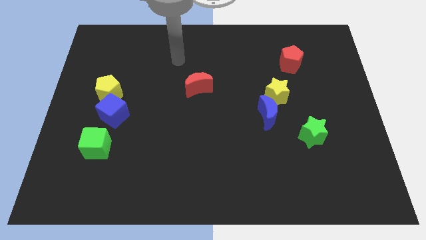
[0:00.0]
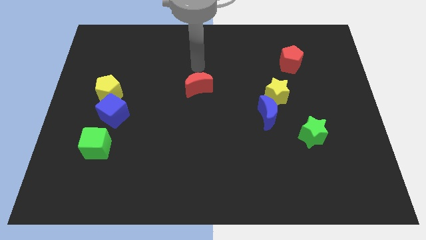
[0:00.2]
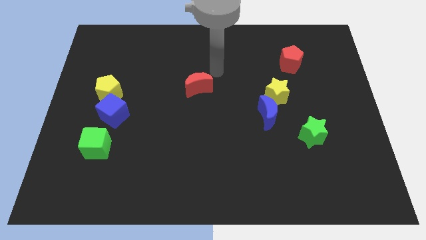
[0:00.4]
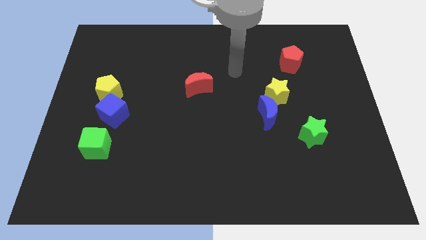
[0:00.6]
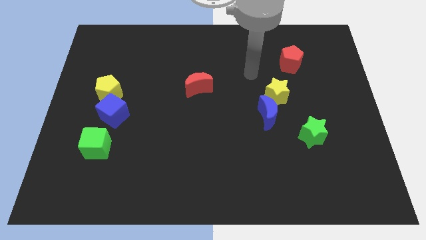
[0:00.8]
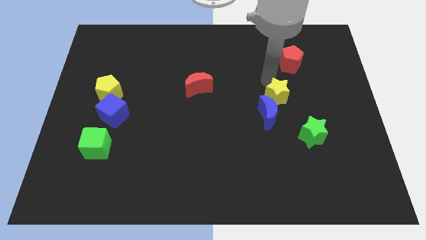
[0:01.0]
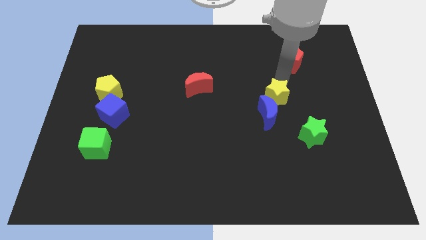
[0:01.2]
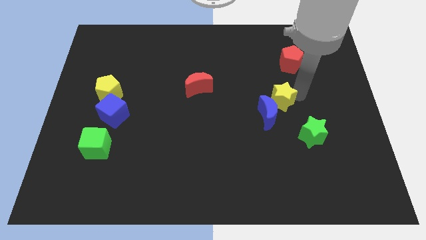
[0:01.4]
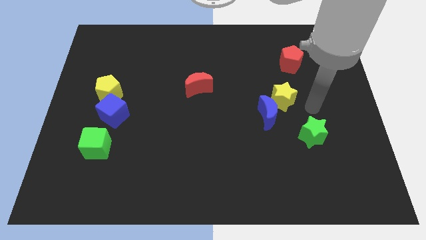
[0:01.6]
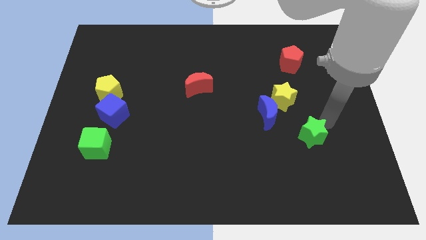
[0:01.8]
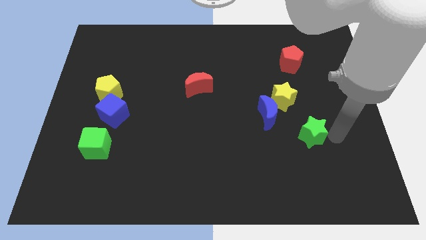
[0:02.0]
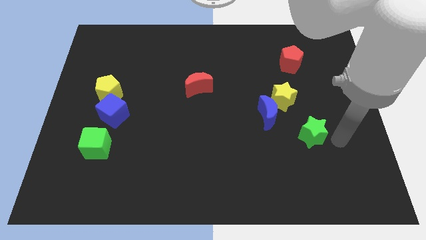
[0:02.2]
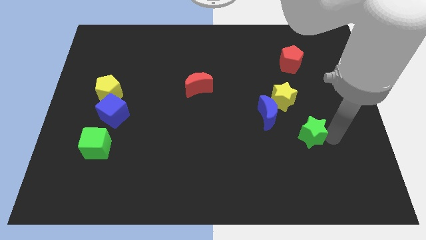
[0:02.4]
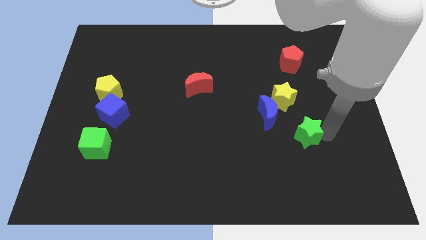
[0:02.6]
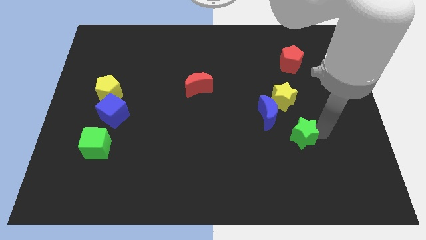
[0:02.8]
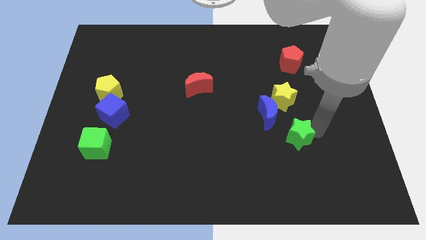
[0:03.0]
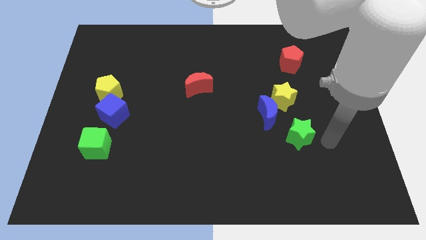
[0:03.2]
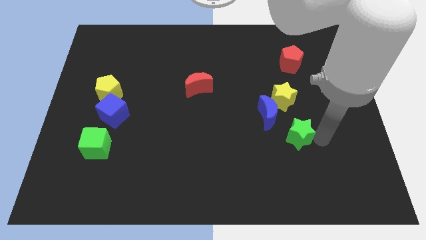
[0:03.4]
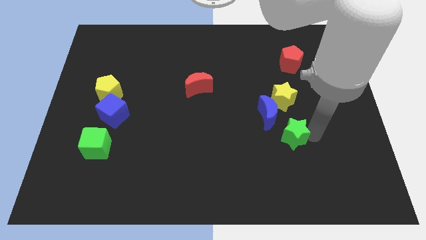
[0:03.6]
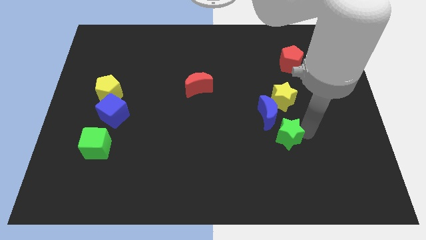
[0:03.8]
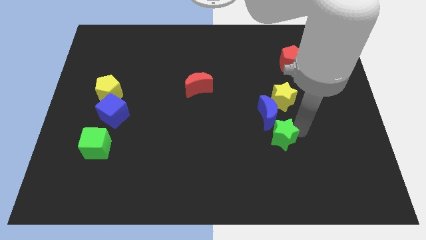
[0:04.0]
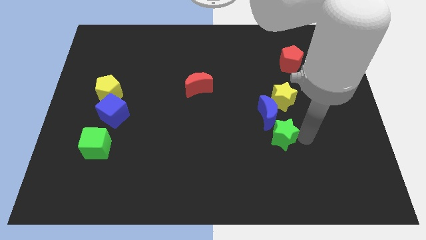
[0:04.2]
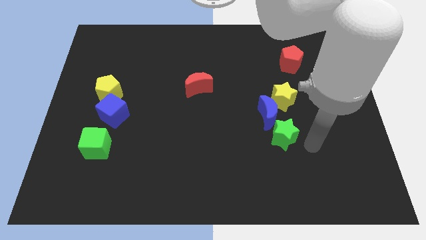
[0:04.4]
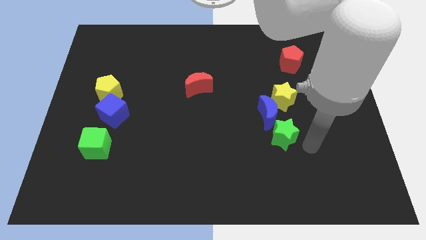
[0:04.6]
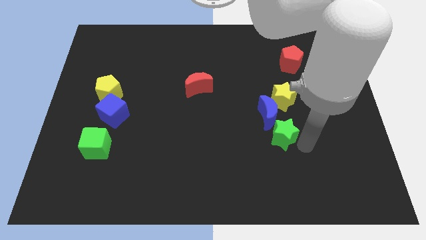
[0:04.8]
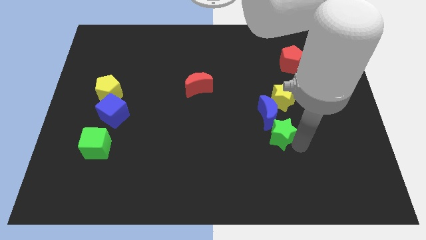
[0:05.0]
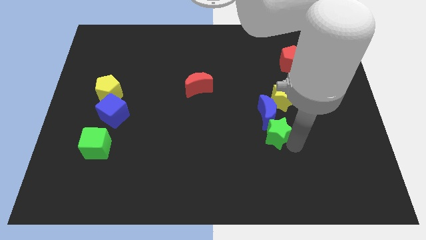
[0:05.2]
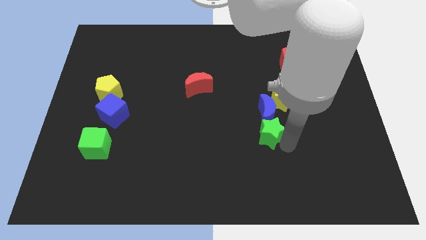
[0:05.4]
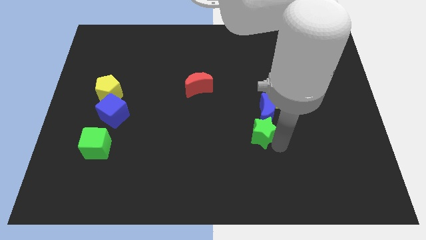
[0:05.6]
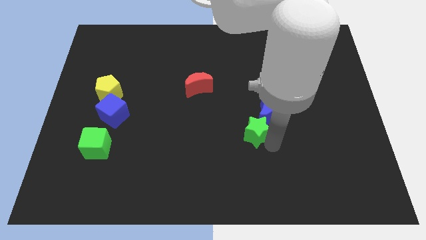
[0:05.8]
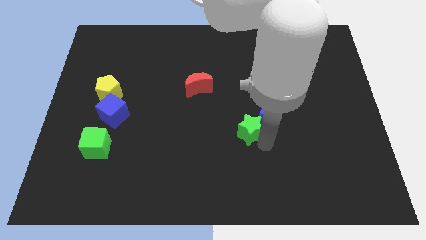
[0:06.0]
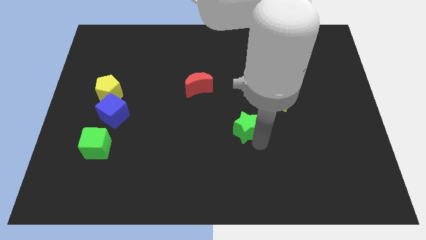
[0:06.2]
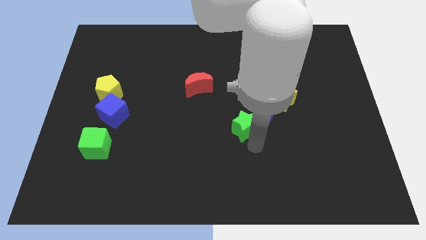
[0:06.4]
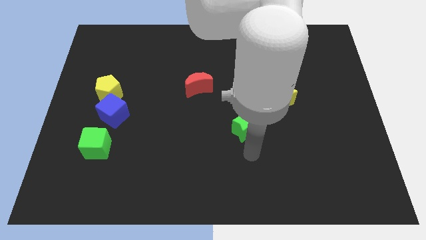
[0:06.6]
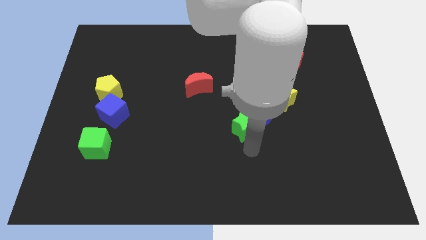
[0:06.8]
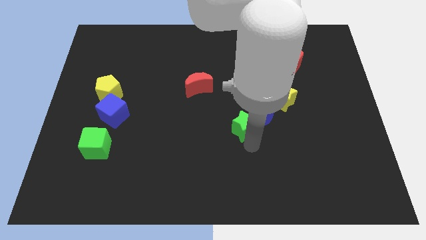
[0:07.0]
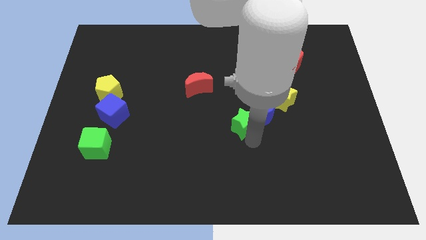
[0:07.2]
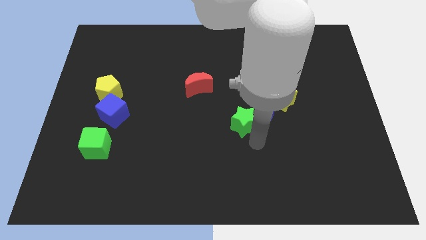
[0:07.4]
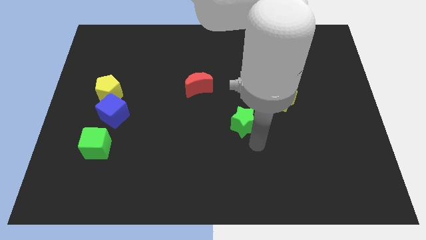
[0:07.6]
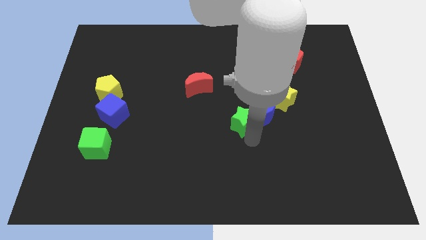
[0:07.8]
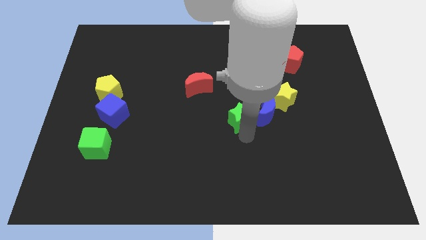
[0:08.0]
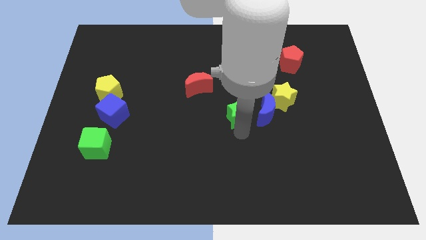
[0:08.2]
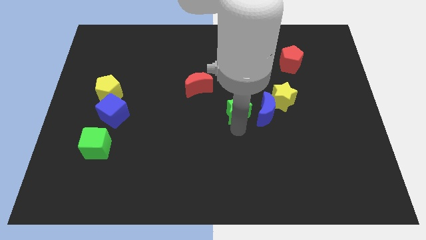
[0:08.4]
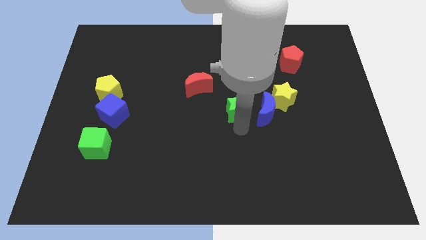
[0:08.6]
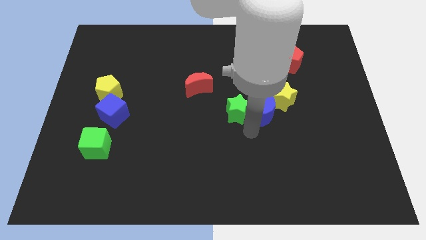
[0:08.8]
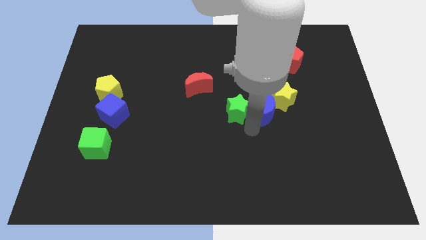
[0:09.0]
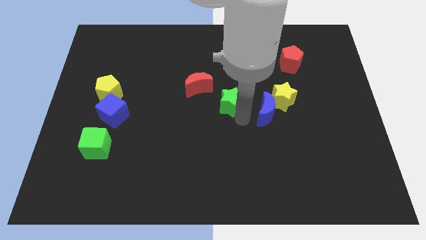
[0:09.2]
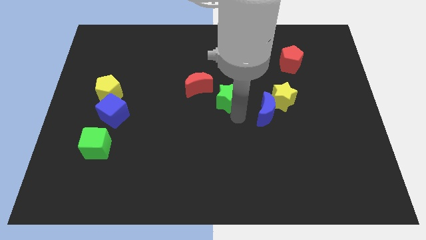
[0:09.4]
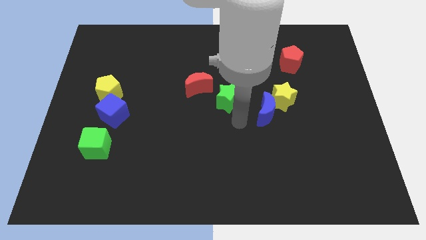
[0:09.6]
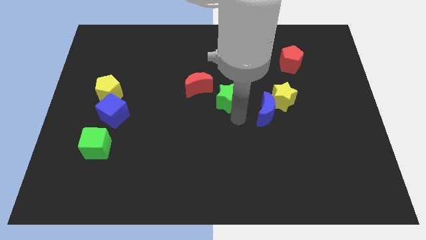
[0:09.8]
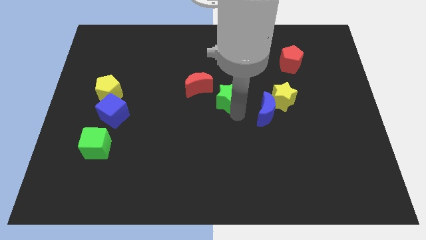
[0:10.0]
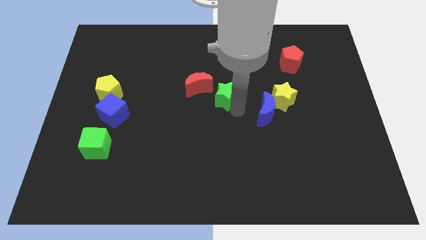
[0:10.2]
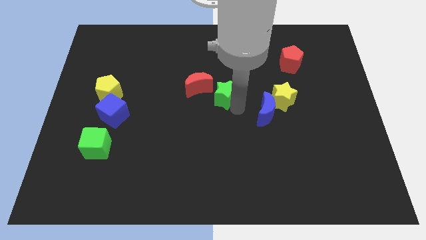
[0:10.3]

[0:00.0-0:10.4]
push the green star upwards and left diagonally

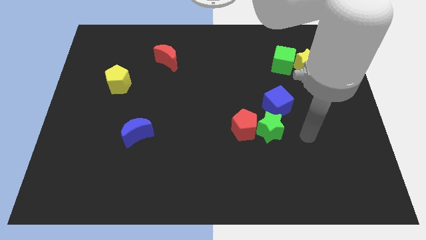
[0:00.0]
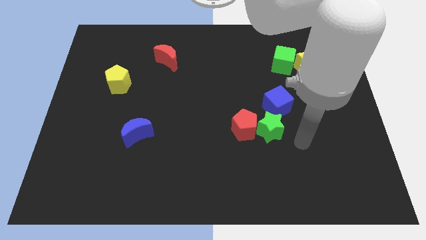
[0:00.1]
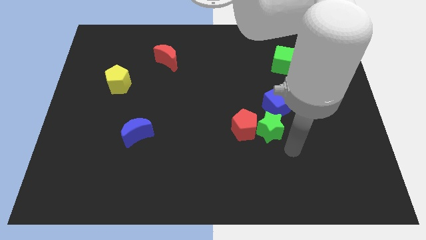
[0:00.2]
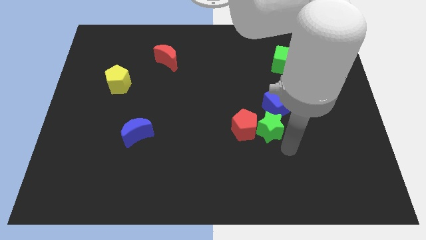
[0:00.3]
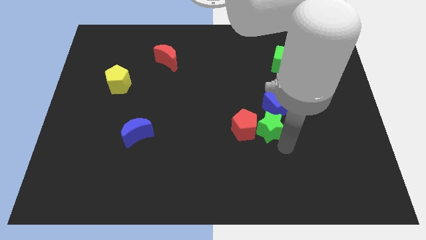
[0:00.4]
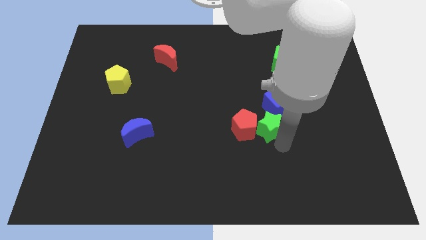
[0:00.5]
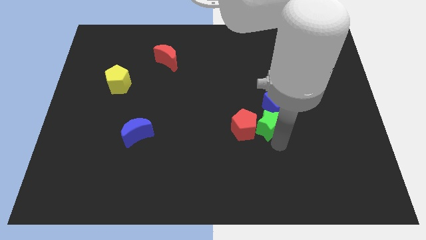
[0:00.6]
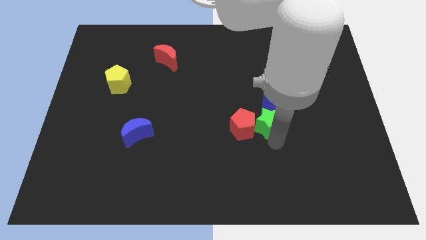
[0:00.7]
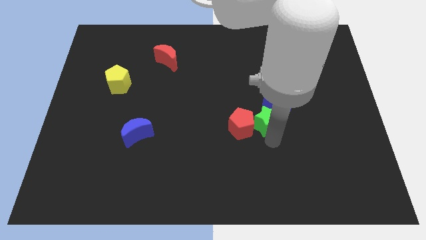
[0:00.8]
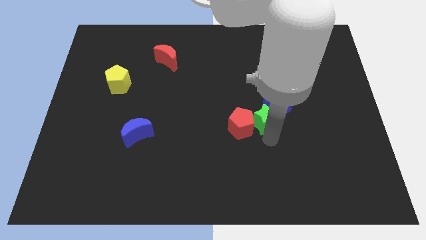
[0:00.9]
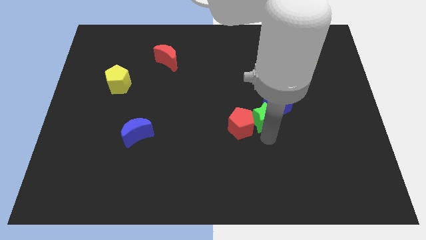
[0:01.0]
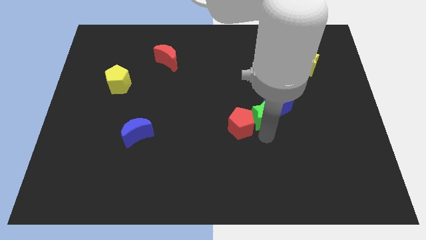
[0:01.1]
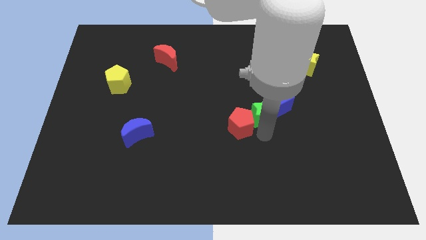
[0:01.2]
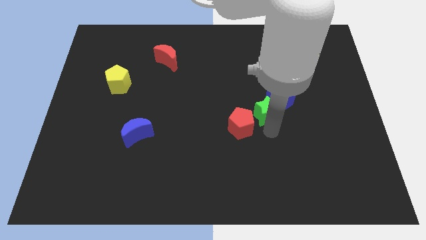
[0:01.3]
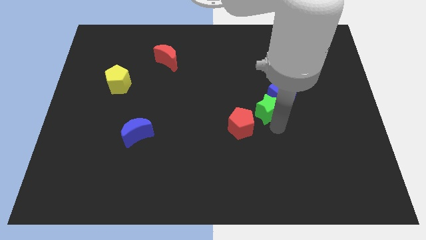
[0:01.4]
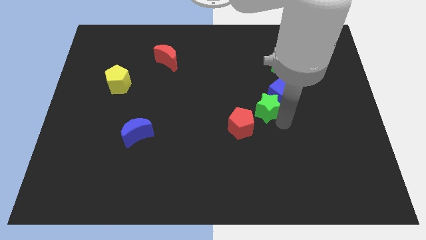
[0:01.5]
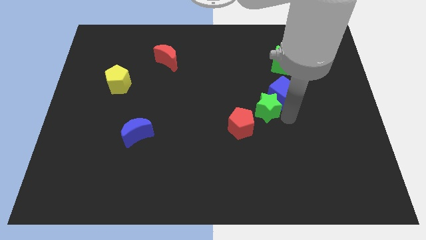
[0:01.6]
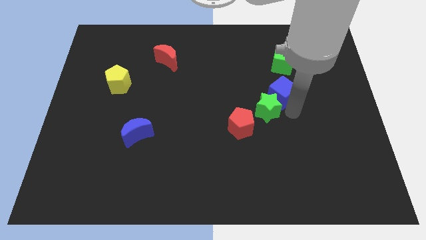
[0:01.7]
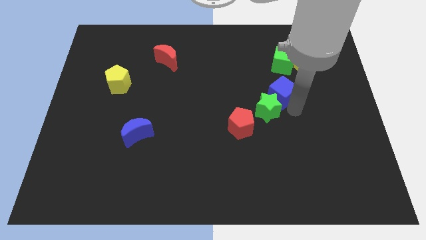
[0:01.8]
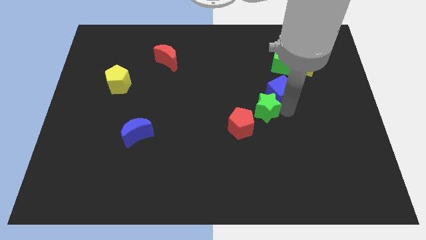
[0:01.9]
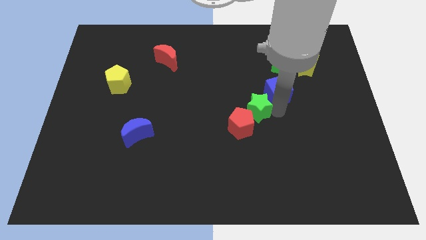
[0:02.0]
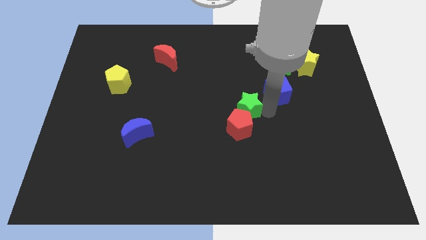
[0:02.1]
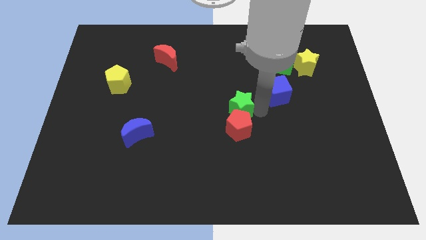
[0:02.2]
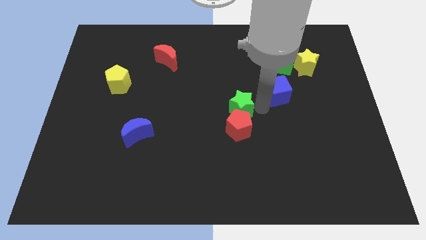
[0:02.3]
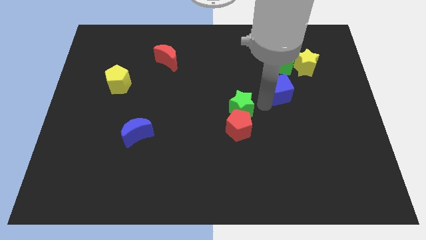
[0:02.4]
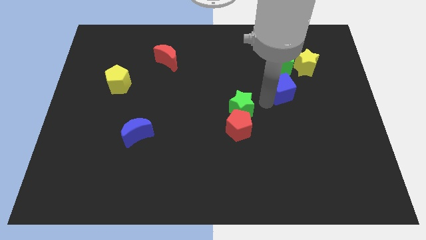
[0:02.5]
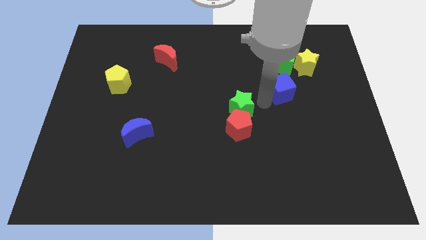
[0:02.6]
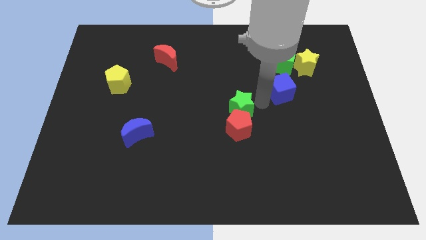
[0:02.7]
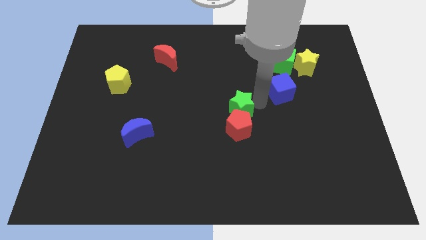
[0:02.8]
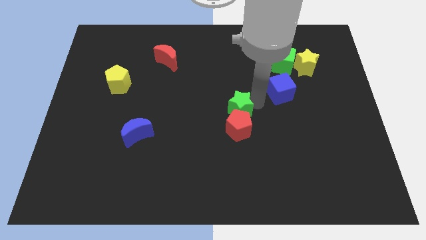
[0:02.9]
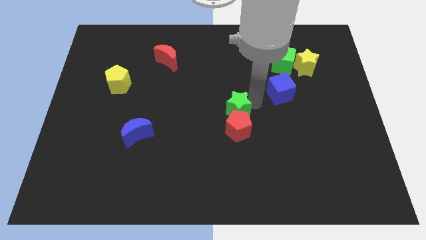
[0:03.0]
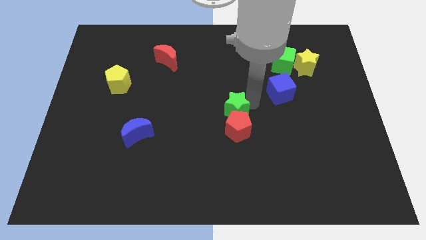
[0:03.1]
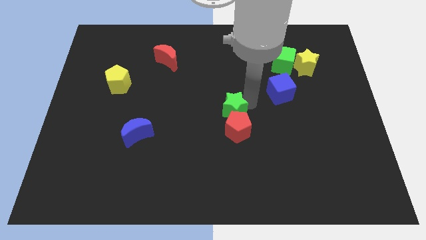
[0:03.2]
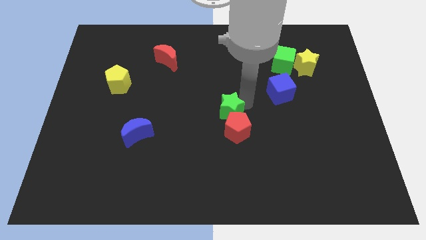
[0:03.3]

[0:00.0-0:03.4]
slide the green star to the left a little
